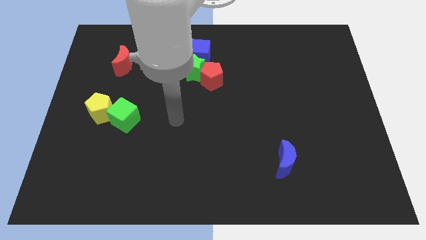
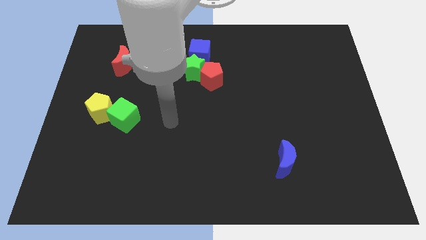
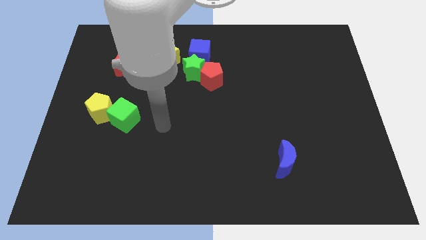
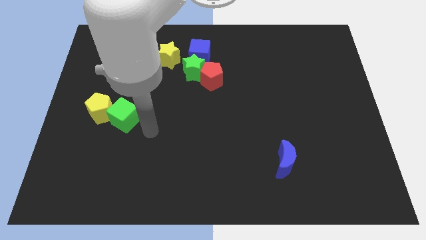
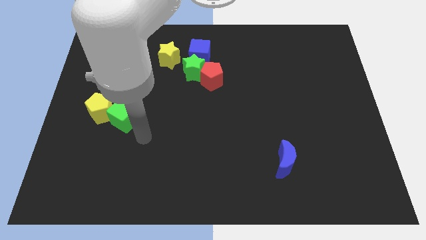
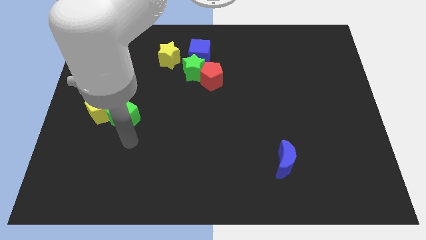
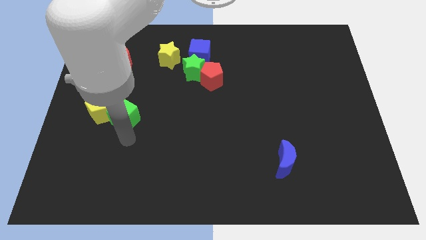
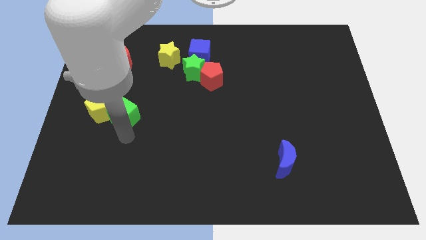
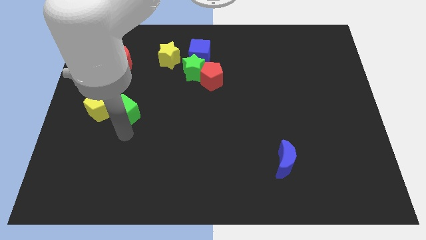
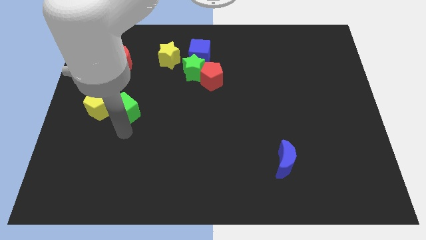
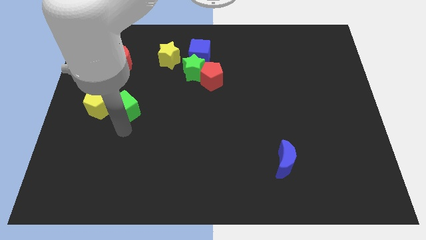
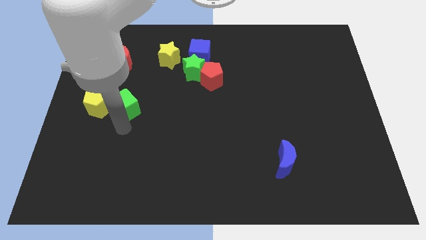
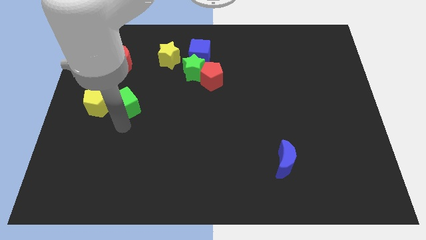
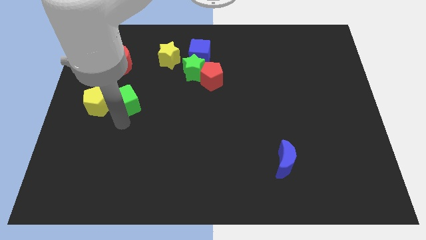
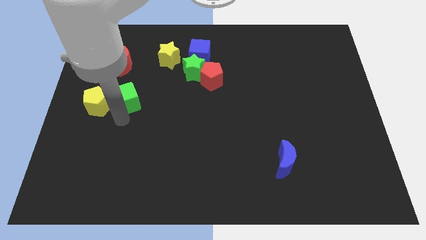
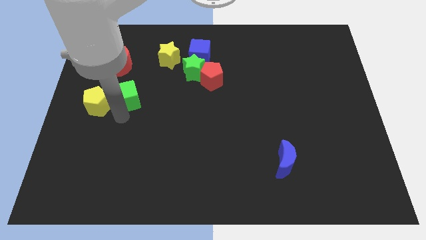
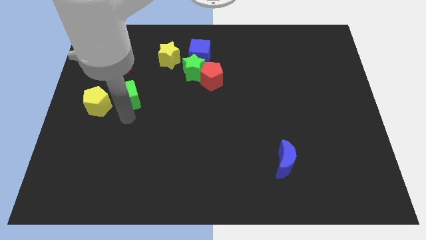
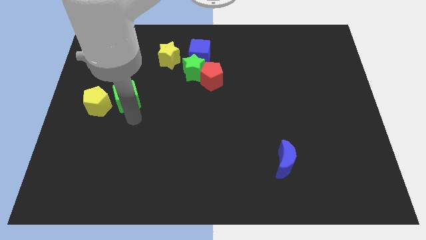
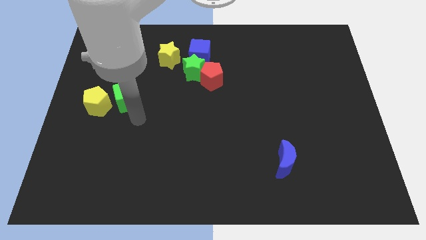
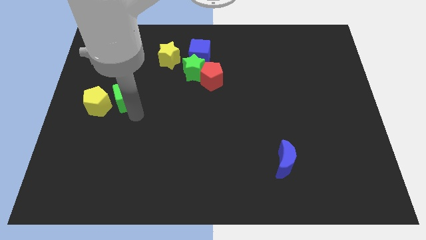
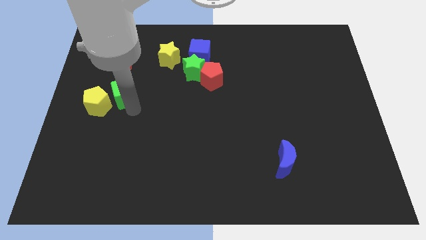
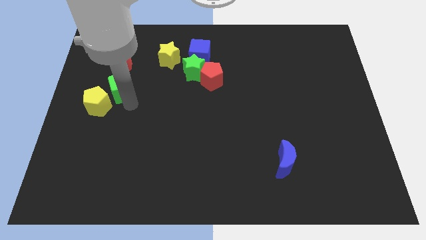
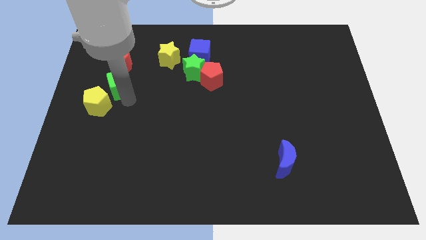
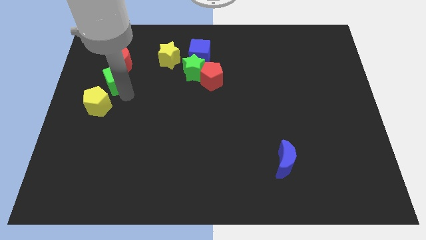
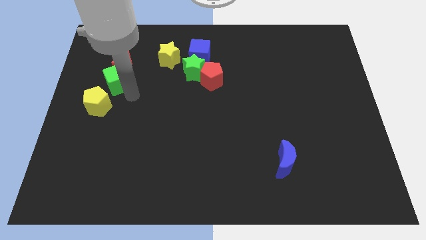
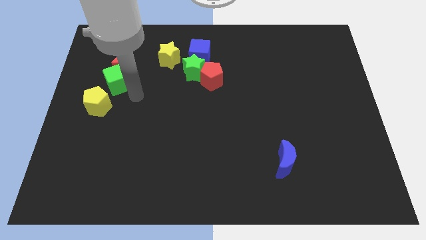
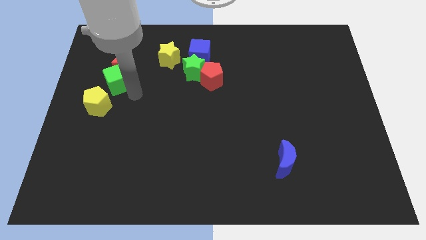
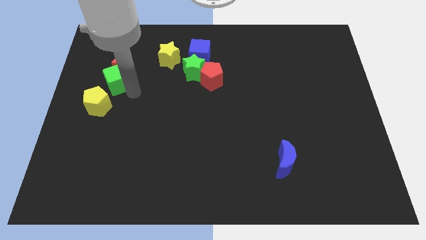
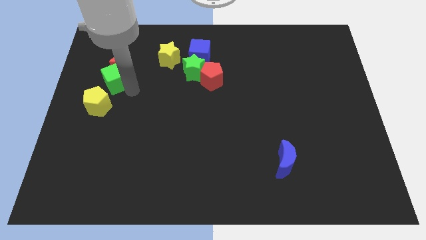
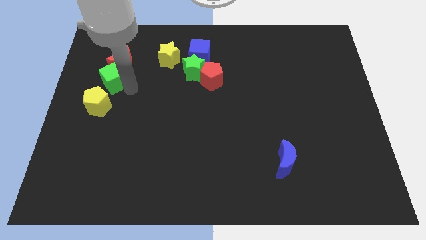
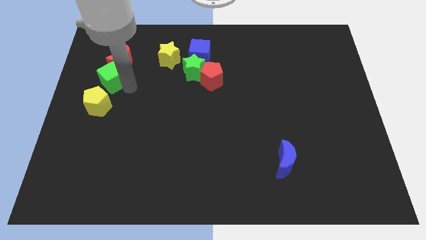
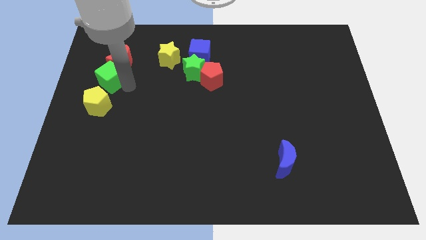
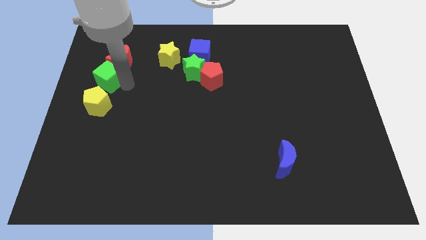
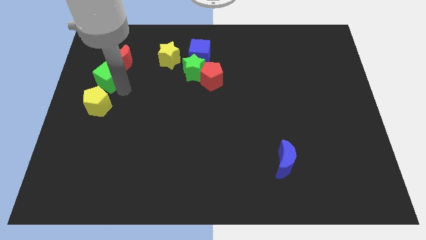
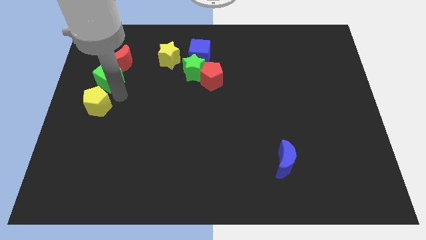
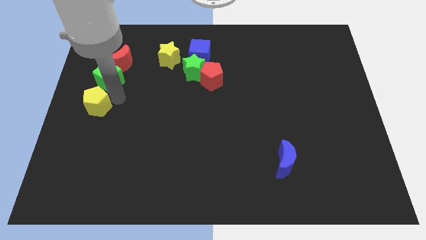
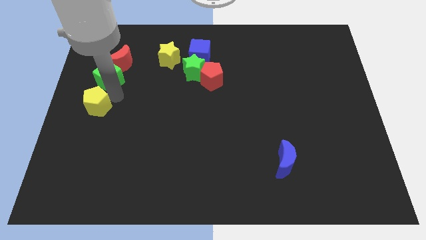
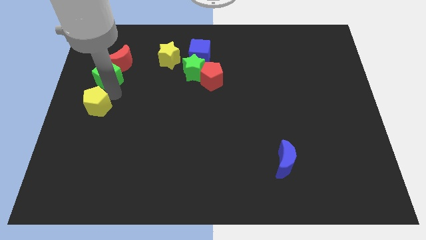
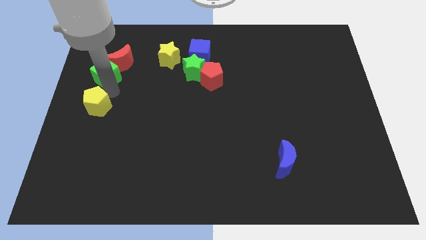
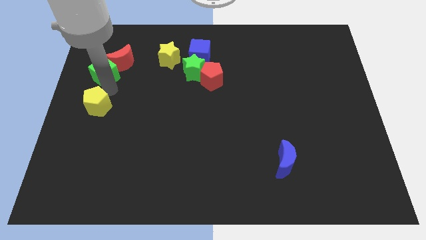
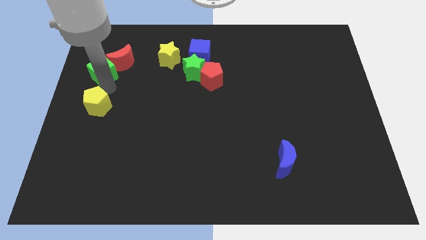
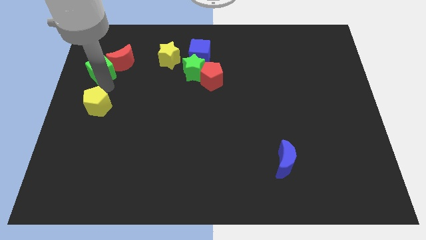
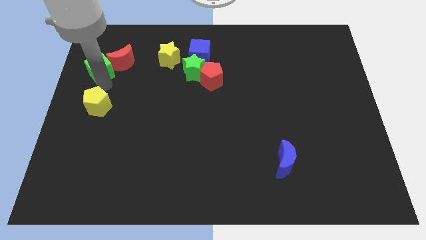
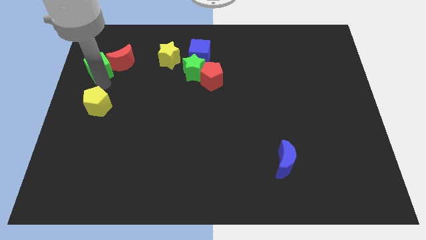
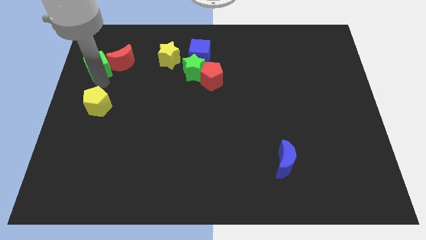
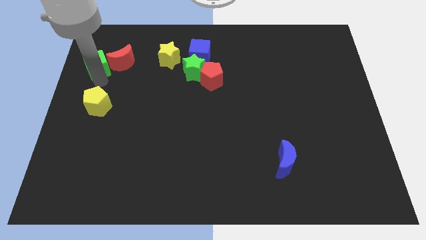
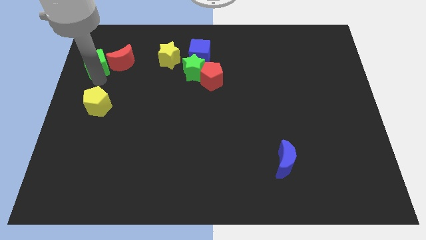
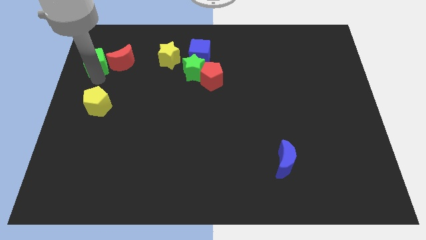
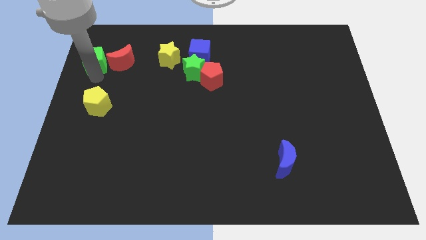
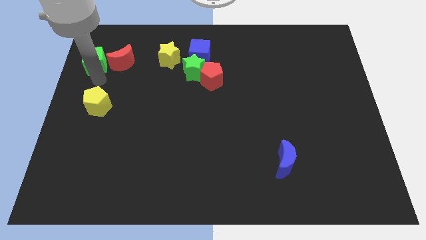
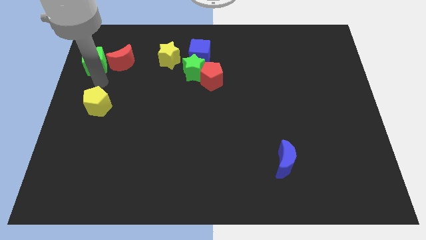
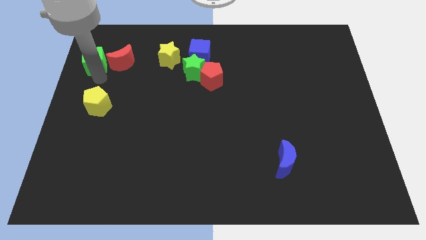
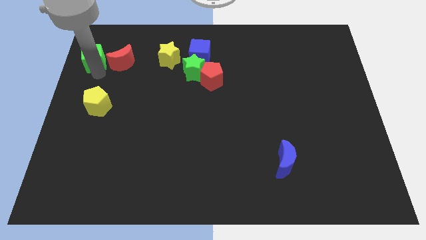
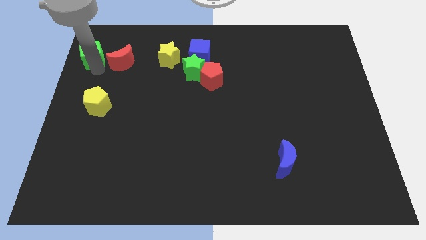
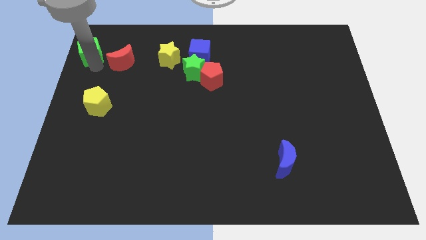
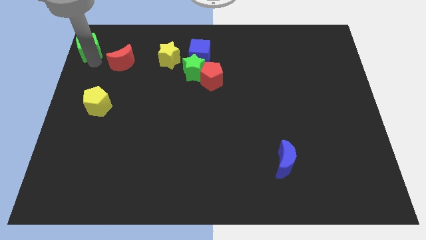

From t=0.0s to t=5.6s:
move the green cube to the top left of the board

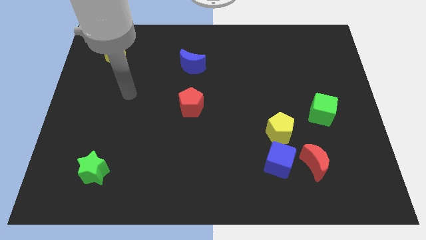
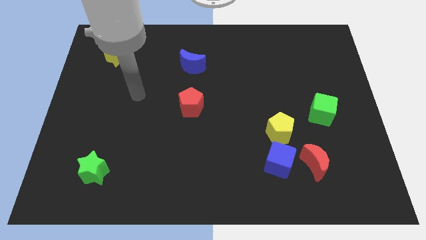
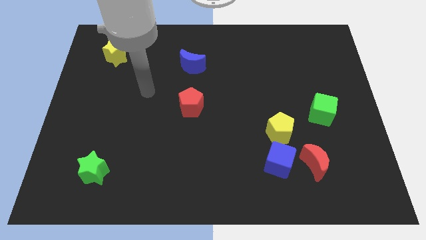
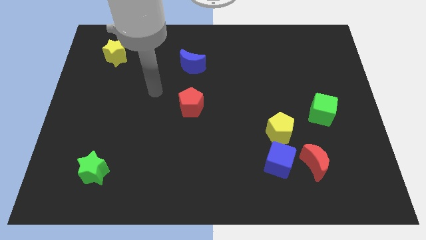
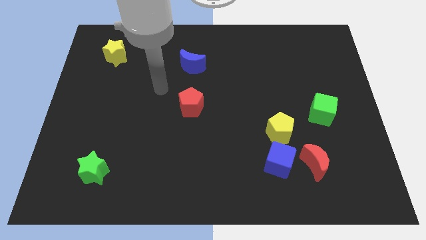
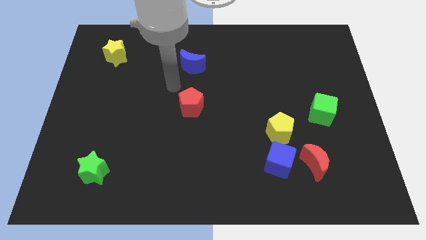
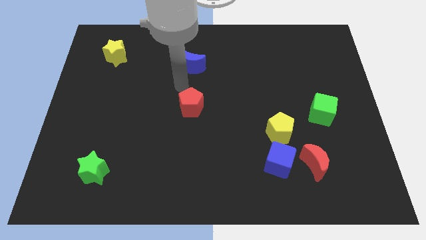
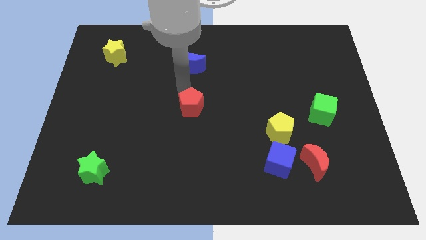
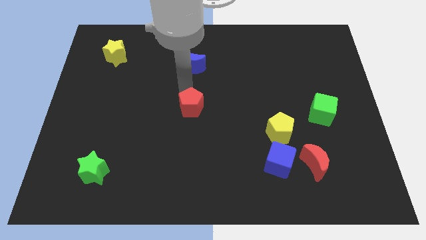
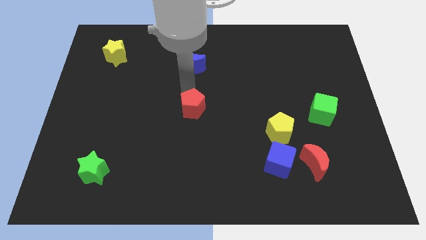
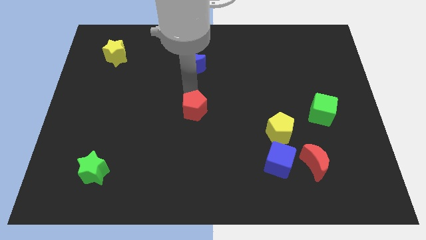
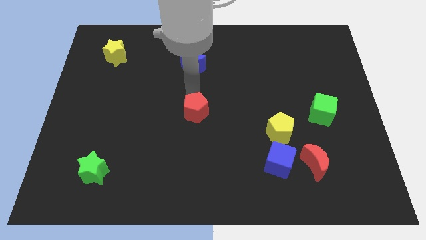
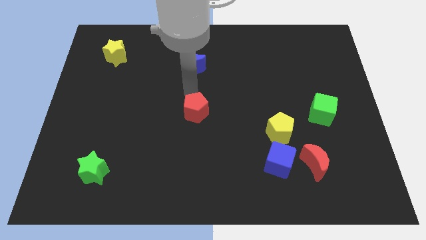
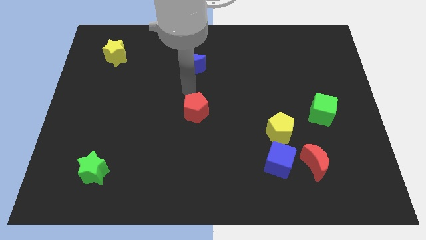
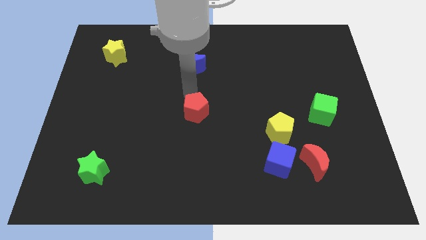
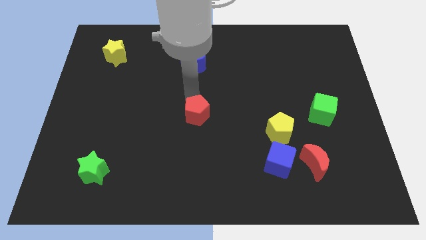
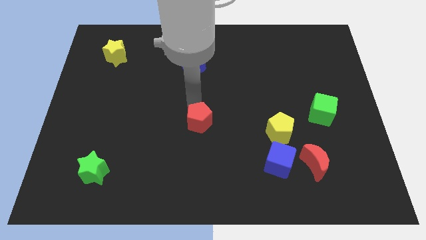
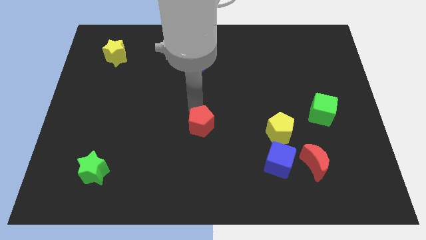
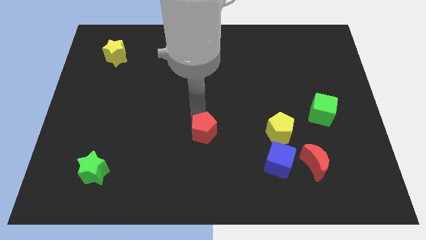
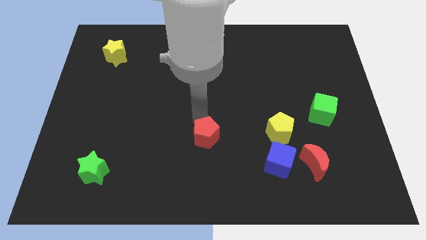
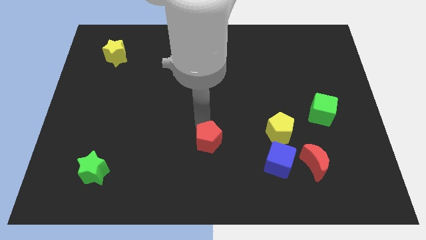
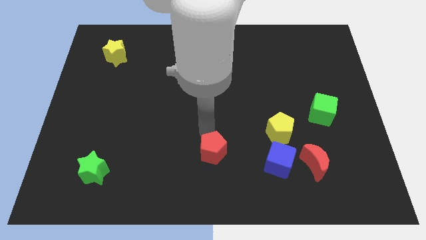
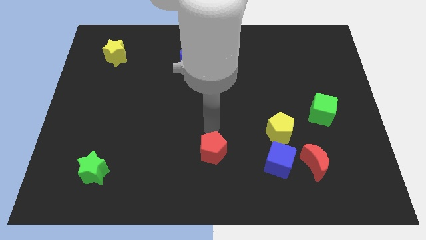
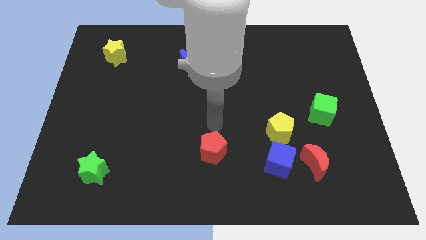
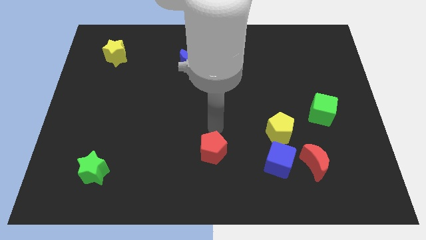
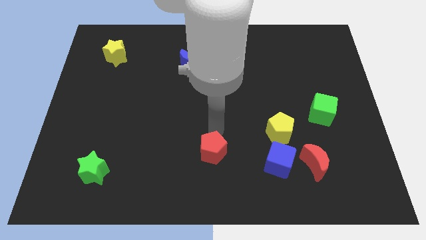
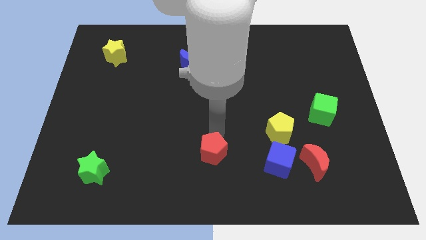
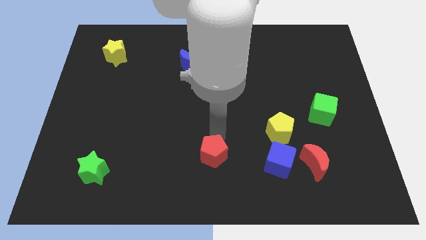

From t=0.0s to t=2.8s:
push the red pentagon to the bottom side
